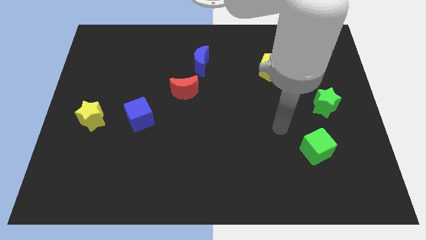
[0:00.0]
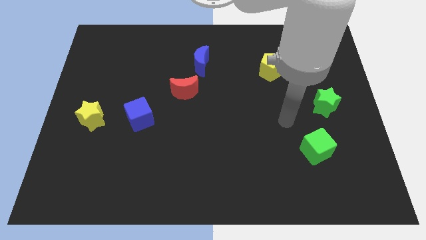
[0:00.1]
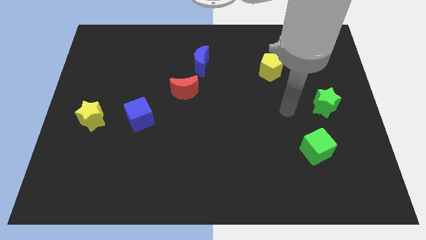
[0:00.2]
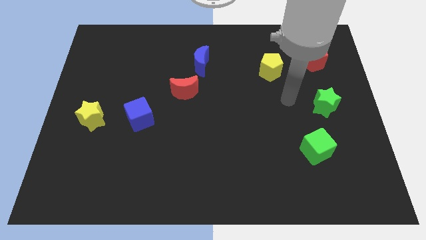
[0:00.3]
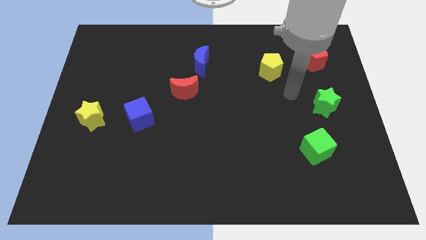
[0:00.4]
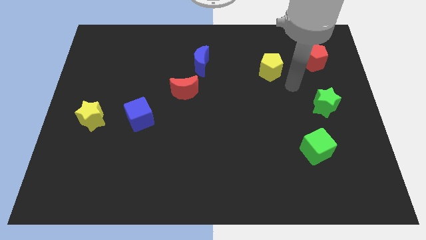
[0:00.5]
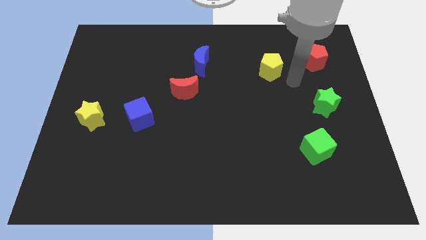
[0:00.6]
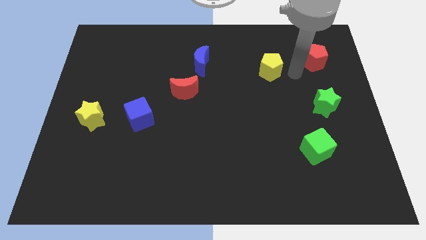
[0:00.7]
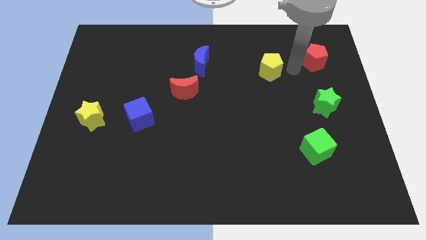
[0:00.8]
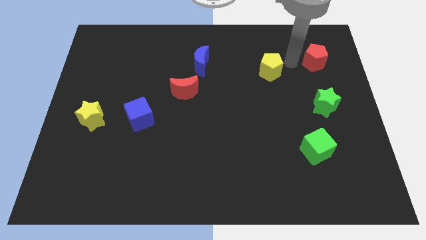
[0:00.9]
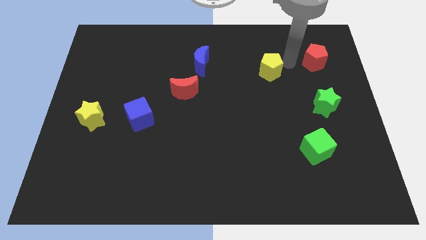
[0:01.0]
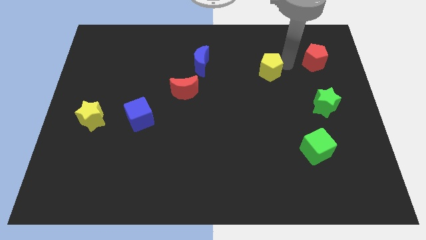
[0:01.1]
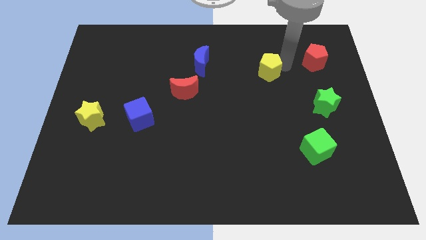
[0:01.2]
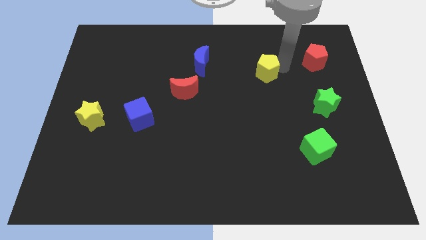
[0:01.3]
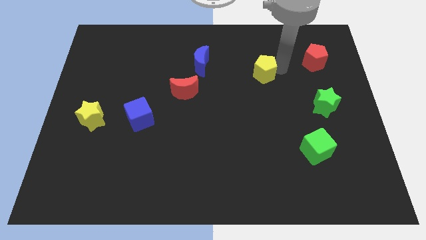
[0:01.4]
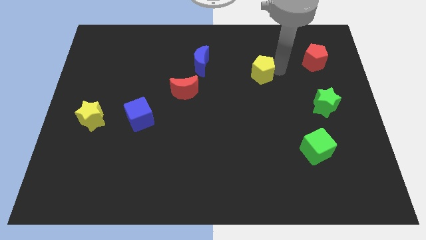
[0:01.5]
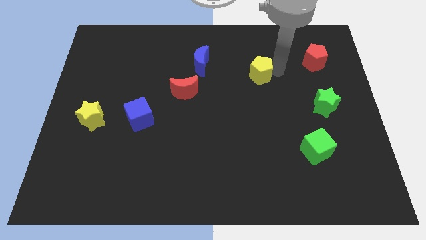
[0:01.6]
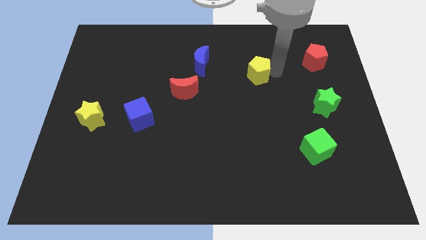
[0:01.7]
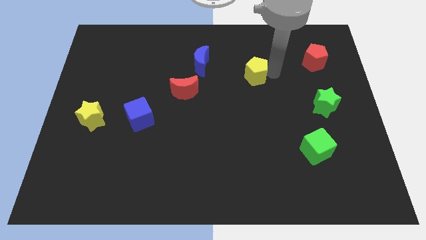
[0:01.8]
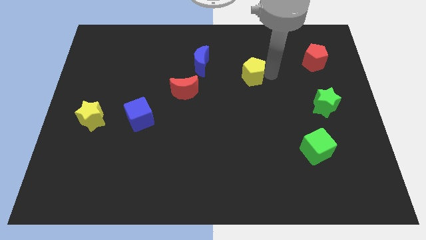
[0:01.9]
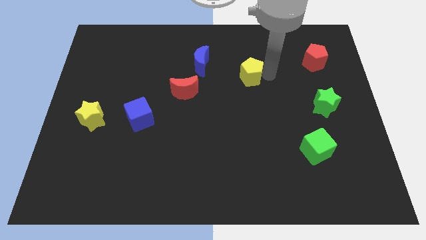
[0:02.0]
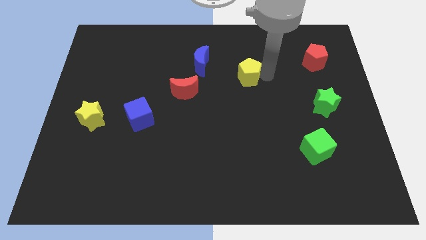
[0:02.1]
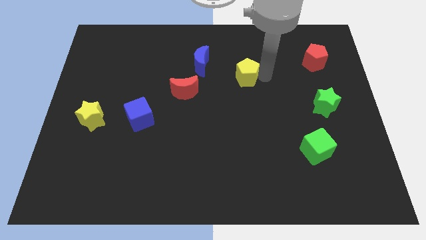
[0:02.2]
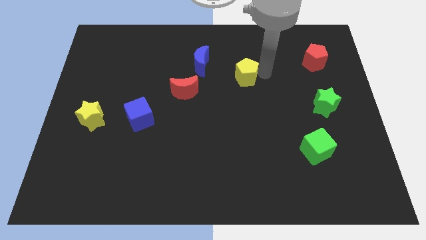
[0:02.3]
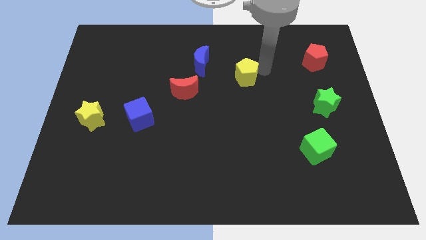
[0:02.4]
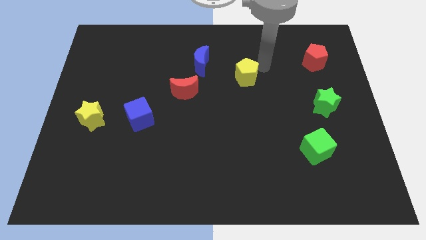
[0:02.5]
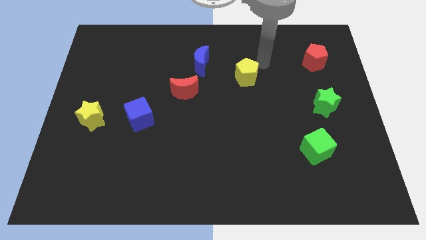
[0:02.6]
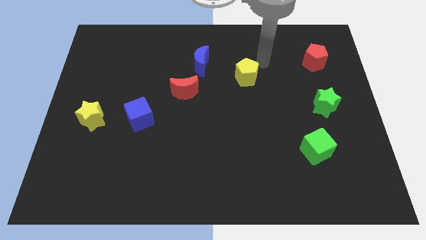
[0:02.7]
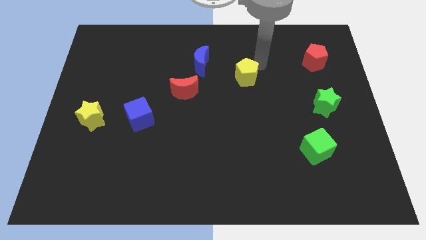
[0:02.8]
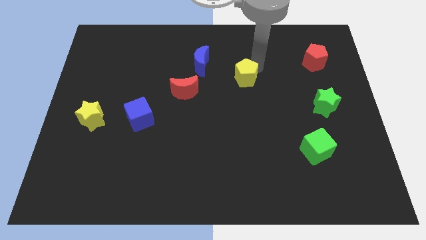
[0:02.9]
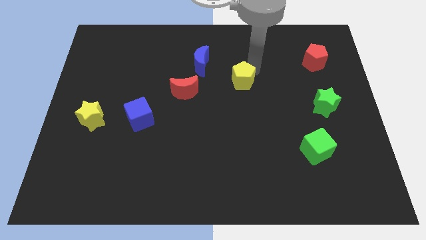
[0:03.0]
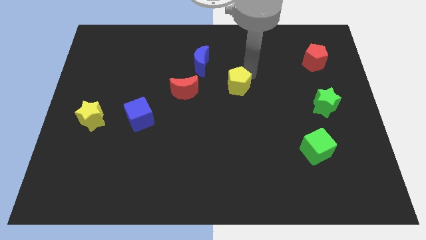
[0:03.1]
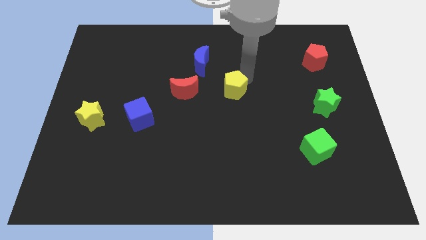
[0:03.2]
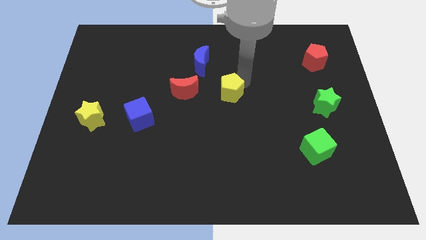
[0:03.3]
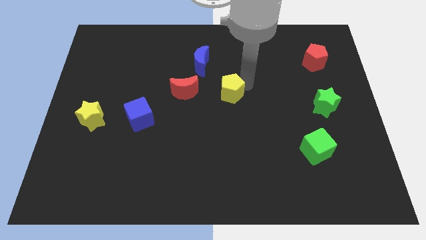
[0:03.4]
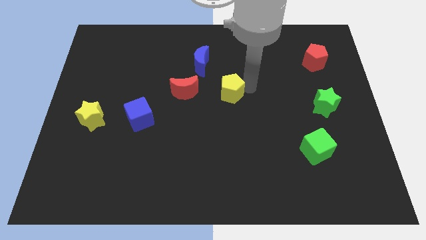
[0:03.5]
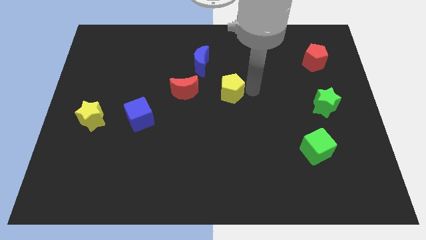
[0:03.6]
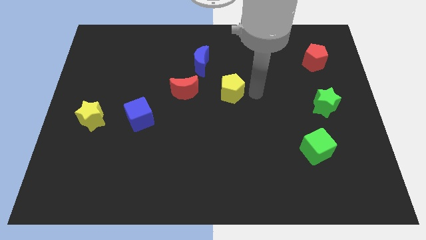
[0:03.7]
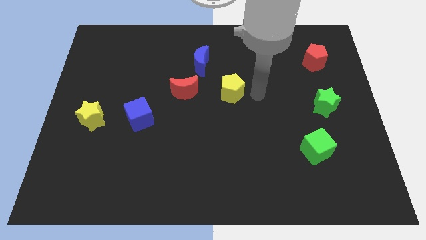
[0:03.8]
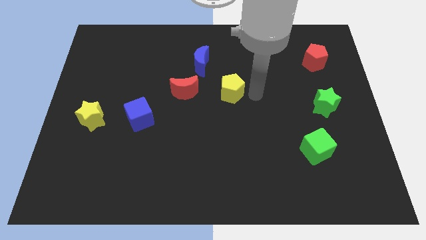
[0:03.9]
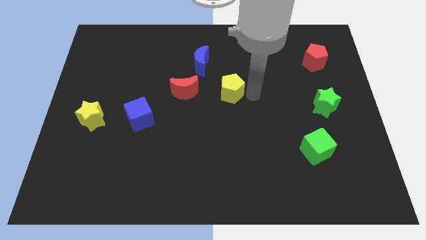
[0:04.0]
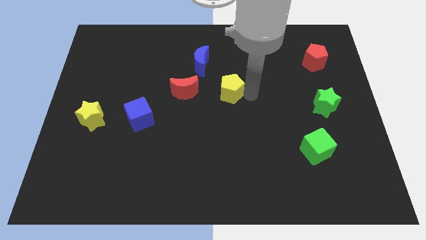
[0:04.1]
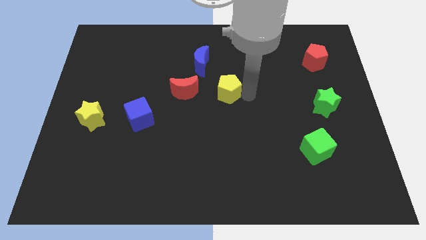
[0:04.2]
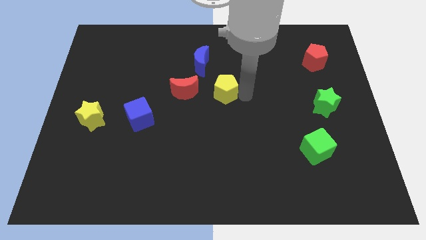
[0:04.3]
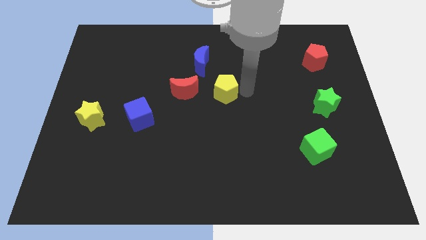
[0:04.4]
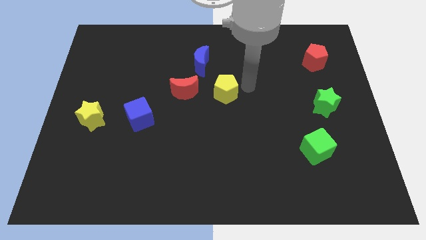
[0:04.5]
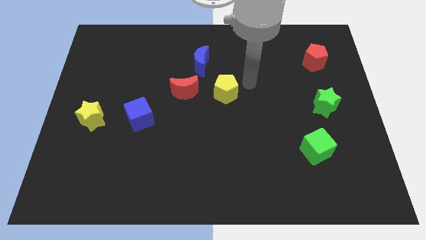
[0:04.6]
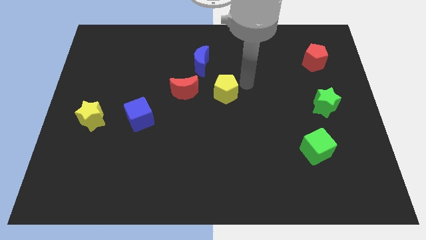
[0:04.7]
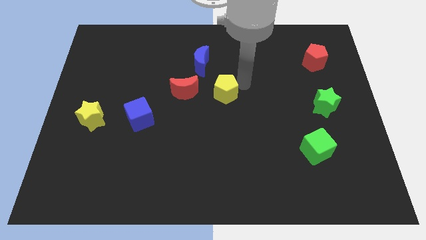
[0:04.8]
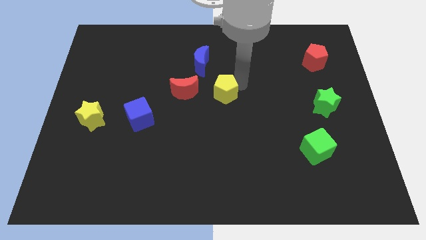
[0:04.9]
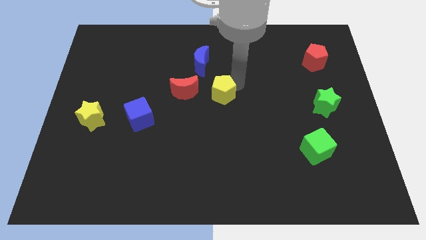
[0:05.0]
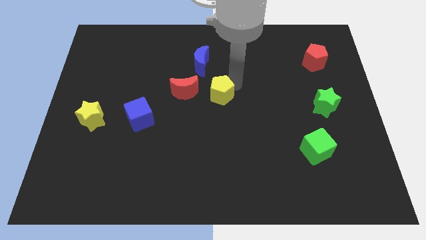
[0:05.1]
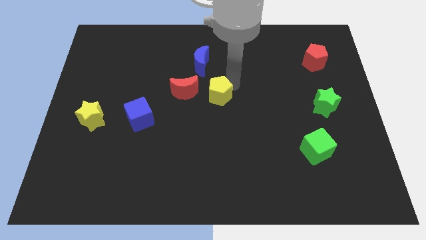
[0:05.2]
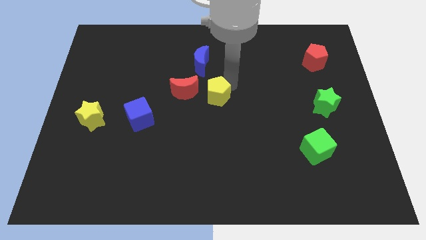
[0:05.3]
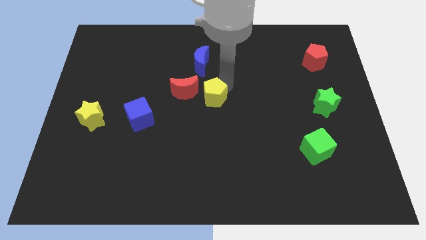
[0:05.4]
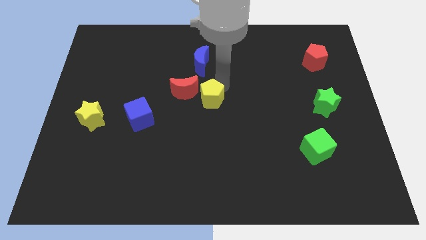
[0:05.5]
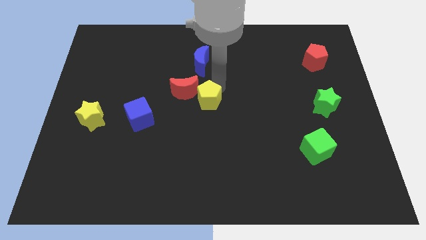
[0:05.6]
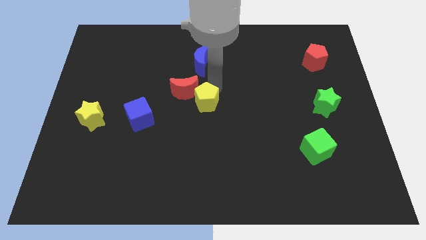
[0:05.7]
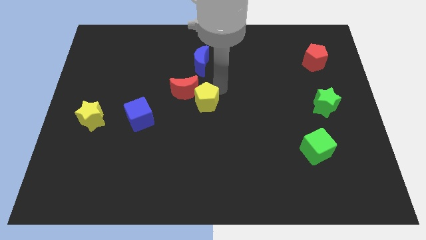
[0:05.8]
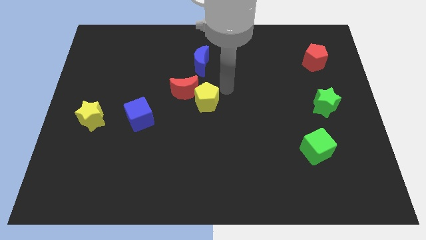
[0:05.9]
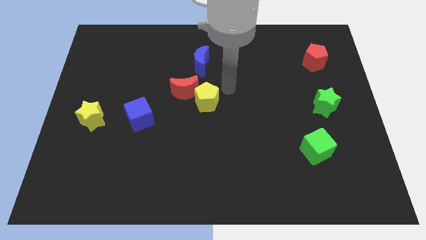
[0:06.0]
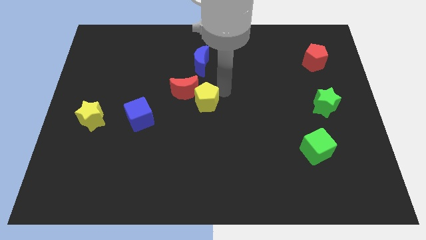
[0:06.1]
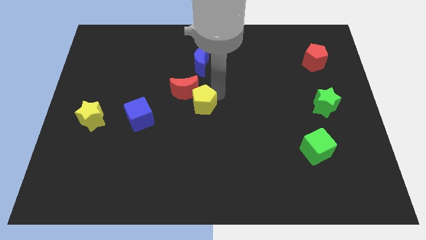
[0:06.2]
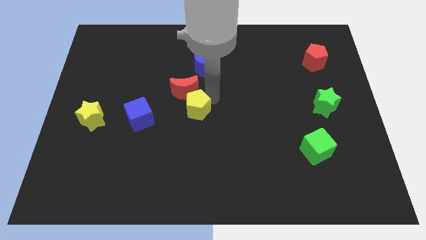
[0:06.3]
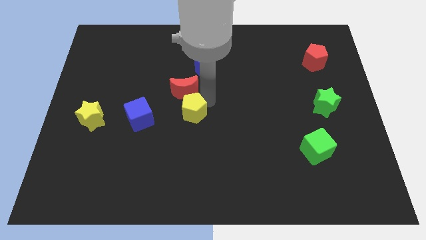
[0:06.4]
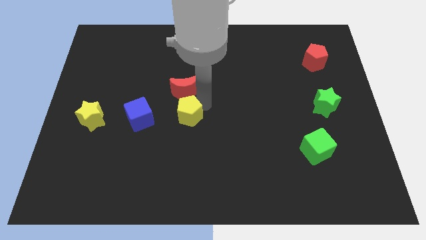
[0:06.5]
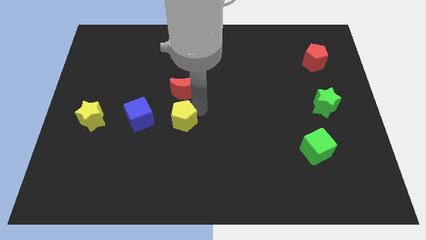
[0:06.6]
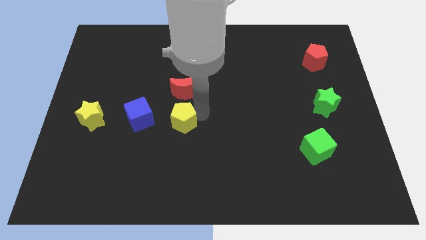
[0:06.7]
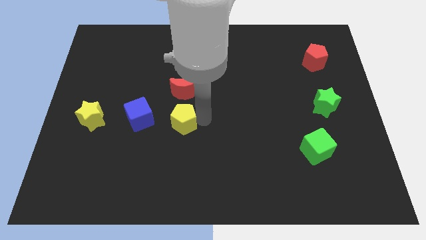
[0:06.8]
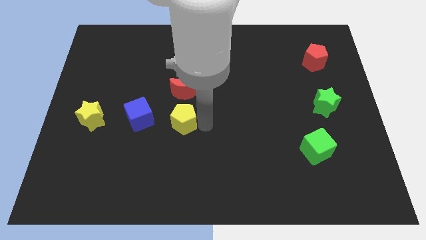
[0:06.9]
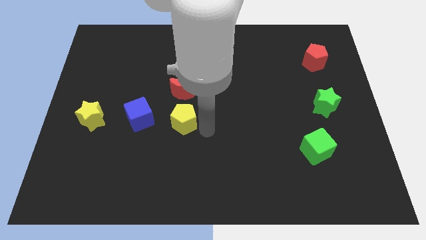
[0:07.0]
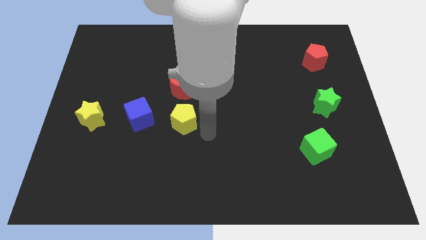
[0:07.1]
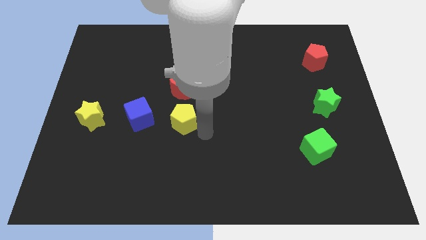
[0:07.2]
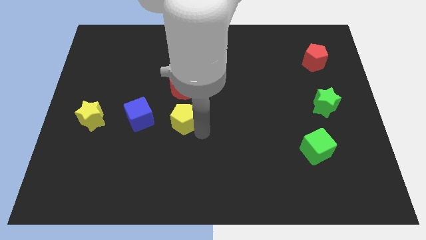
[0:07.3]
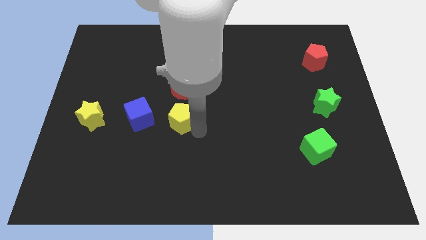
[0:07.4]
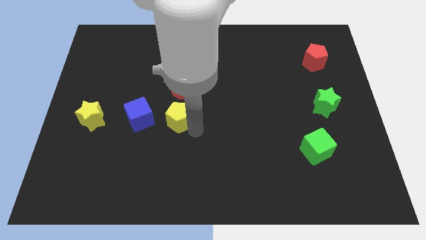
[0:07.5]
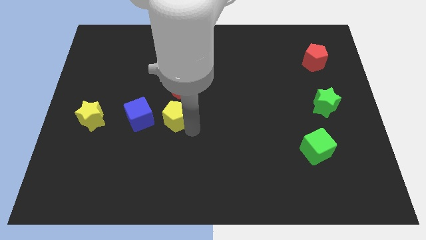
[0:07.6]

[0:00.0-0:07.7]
move the yellow pentagon to the bottom left side of the red moon
